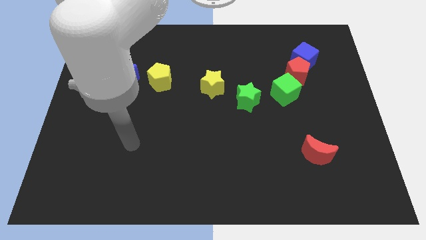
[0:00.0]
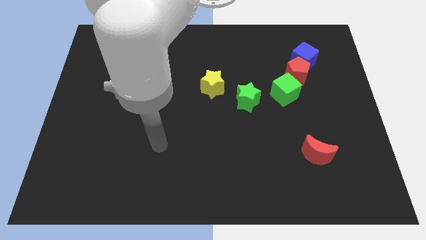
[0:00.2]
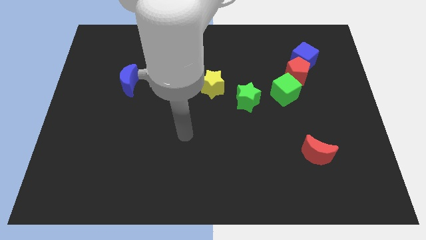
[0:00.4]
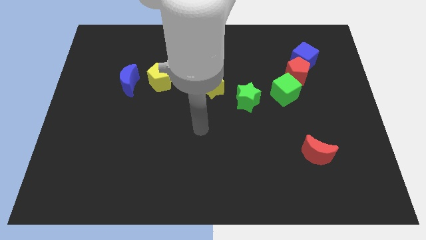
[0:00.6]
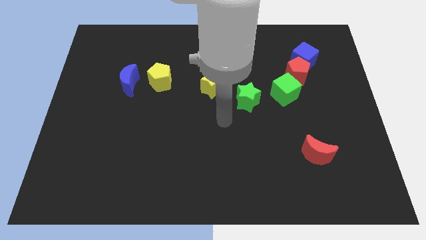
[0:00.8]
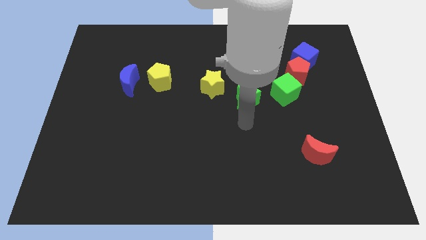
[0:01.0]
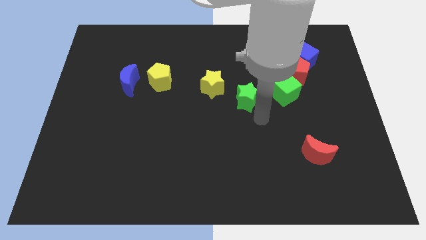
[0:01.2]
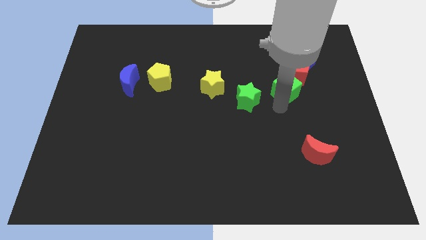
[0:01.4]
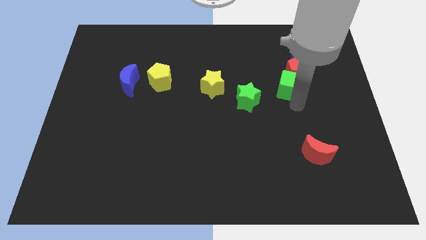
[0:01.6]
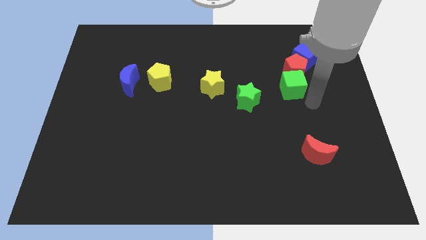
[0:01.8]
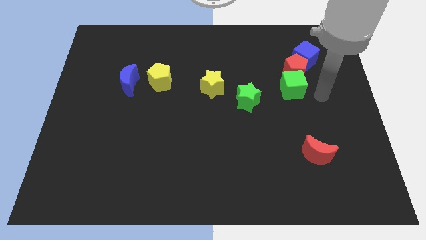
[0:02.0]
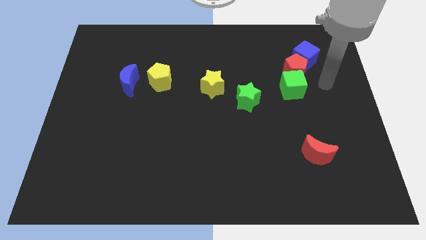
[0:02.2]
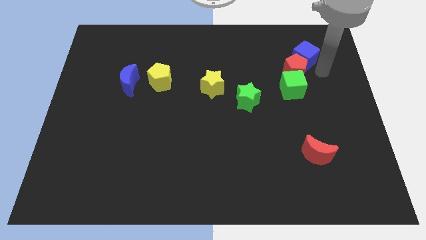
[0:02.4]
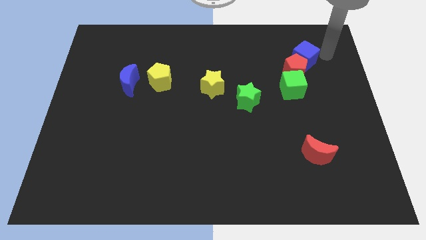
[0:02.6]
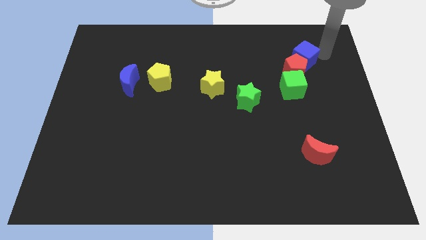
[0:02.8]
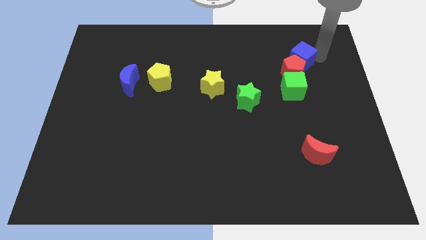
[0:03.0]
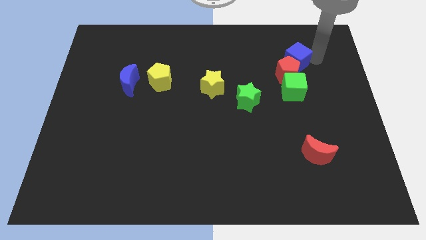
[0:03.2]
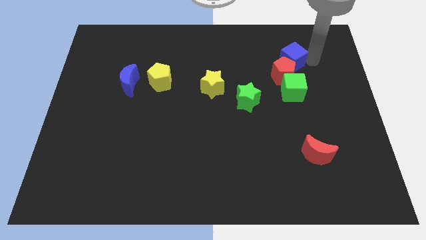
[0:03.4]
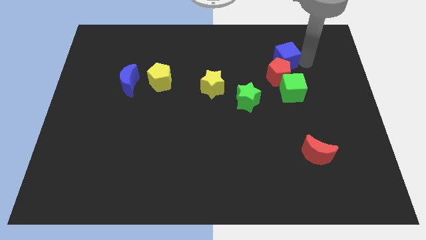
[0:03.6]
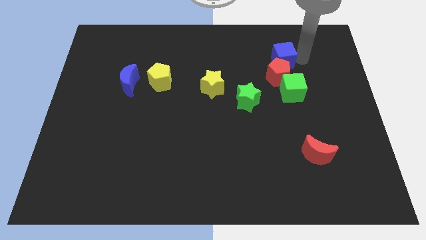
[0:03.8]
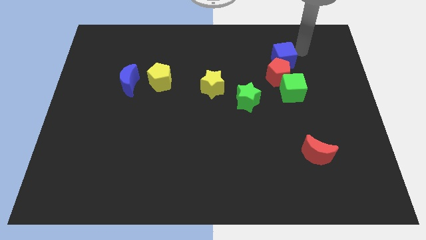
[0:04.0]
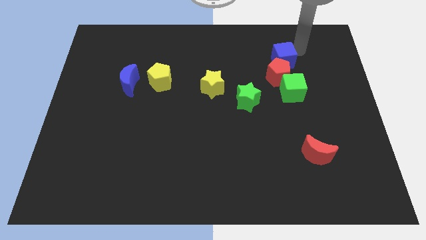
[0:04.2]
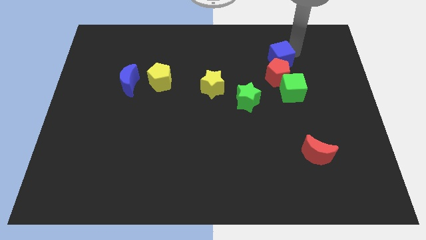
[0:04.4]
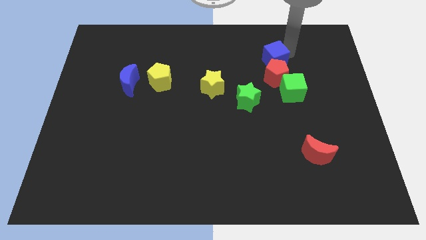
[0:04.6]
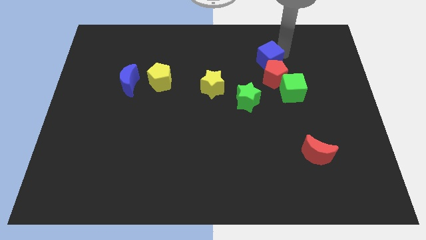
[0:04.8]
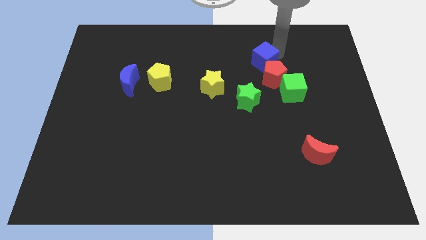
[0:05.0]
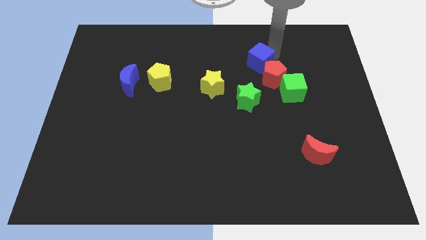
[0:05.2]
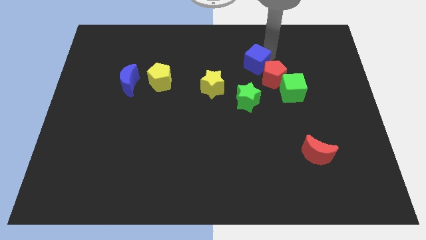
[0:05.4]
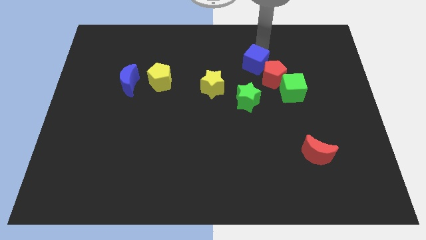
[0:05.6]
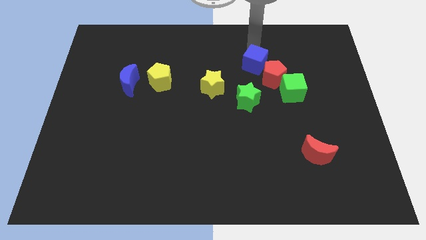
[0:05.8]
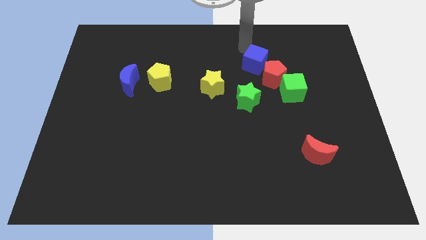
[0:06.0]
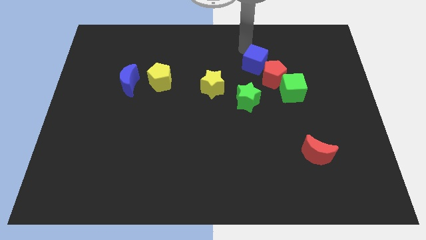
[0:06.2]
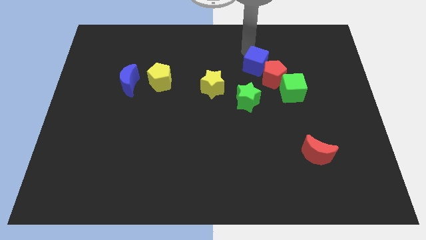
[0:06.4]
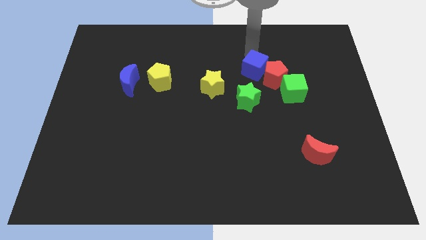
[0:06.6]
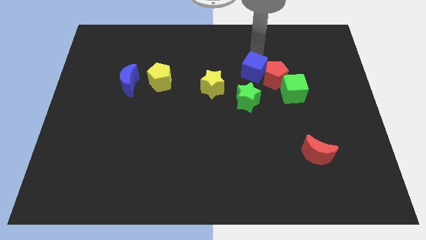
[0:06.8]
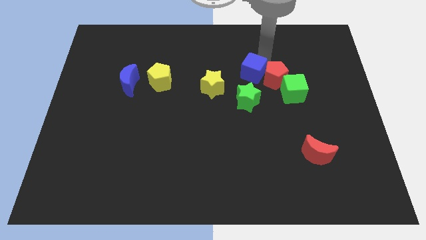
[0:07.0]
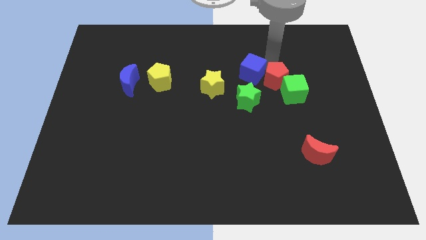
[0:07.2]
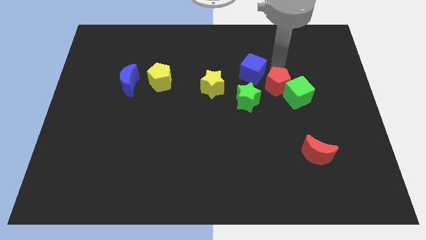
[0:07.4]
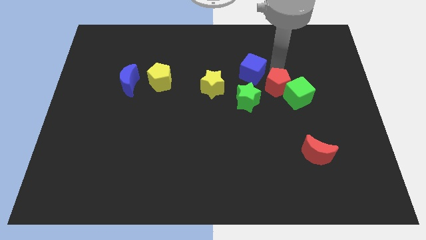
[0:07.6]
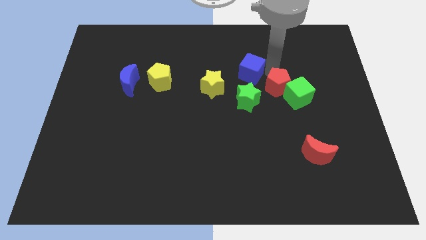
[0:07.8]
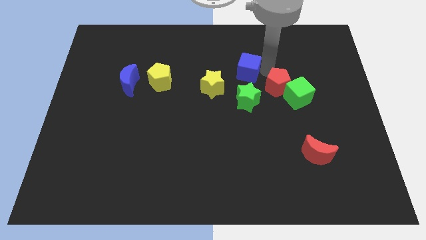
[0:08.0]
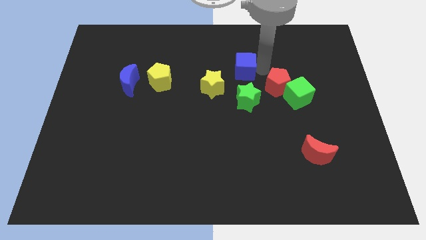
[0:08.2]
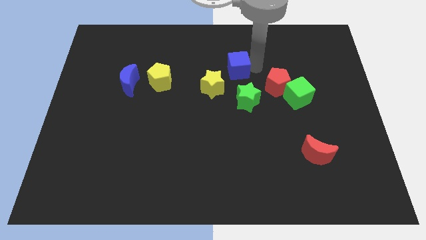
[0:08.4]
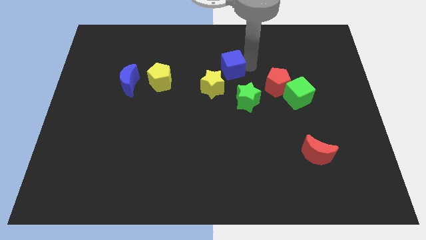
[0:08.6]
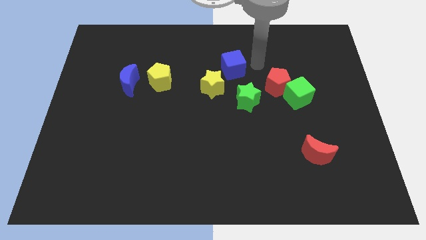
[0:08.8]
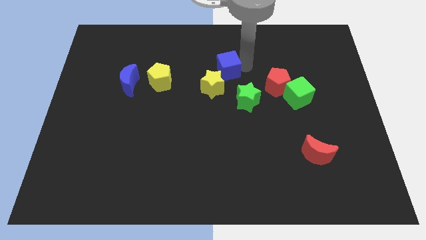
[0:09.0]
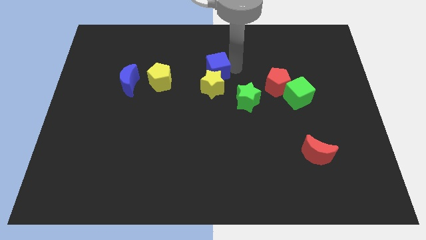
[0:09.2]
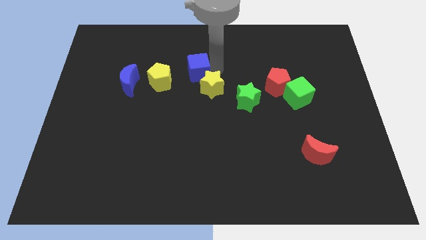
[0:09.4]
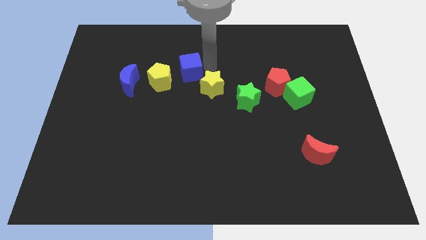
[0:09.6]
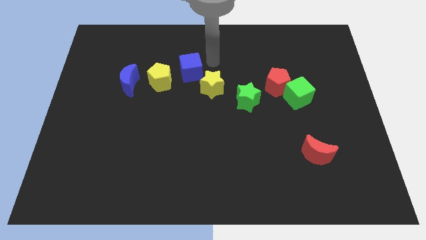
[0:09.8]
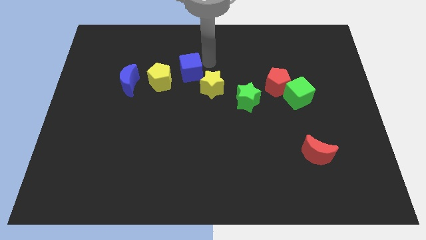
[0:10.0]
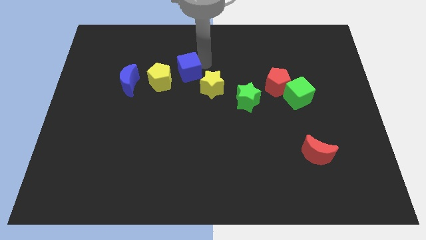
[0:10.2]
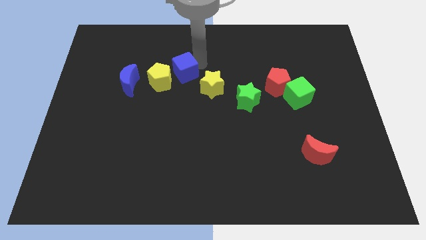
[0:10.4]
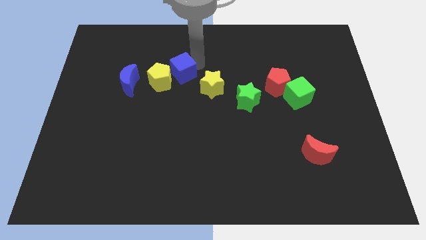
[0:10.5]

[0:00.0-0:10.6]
slide the blue cube towards the yellow pentagon

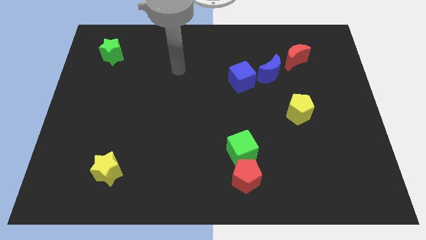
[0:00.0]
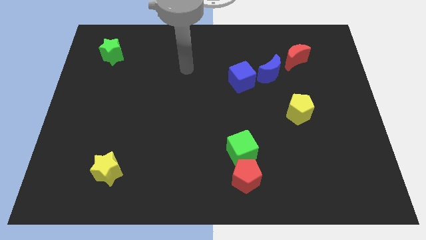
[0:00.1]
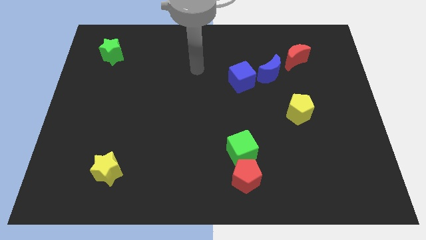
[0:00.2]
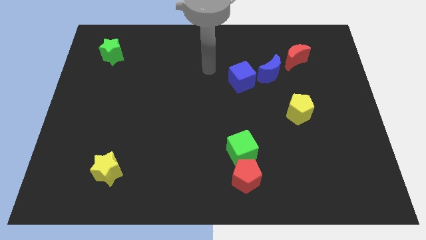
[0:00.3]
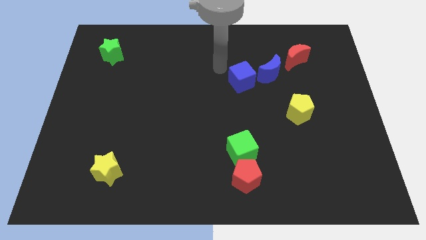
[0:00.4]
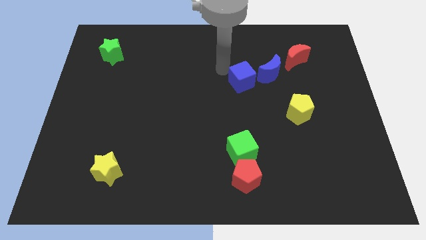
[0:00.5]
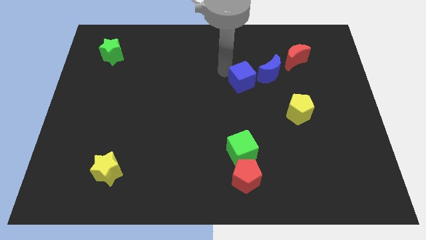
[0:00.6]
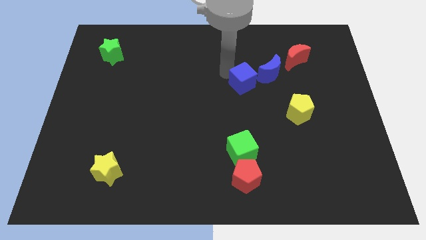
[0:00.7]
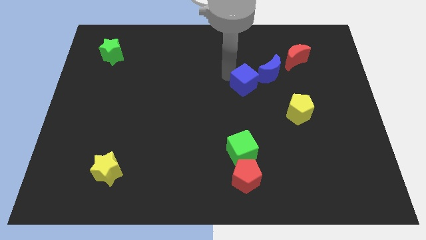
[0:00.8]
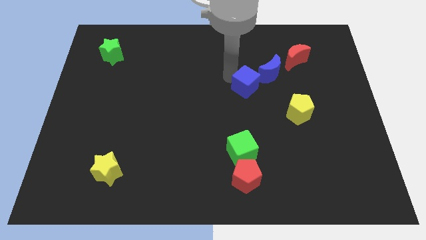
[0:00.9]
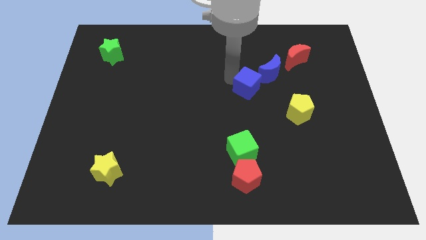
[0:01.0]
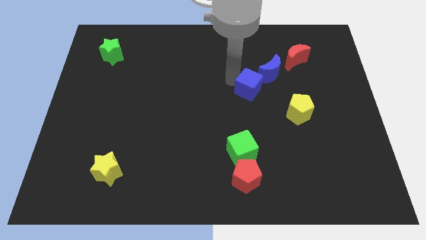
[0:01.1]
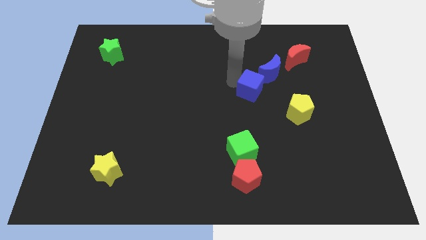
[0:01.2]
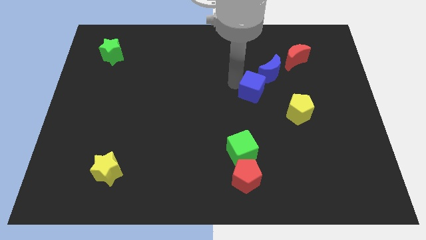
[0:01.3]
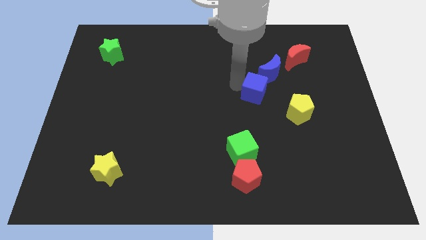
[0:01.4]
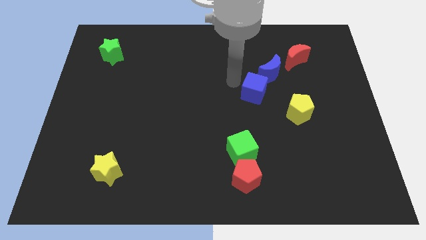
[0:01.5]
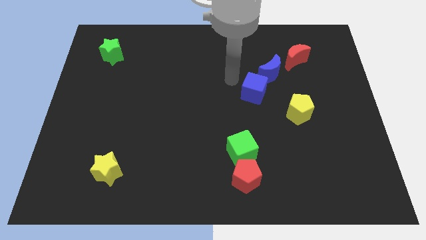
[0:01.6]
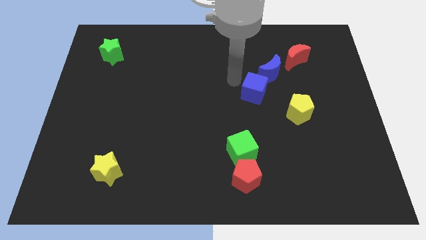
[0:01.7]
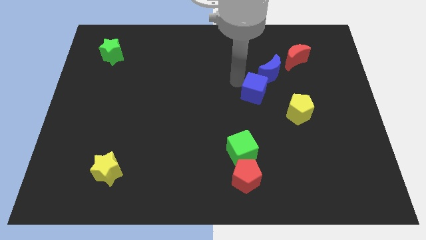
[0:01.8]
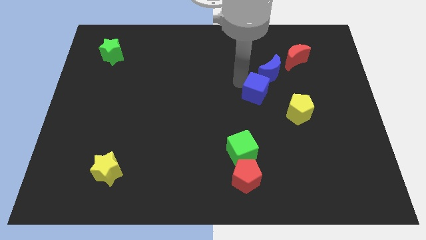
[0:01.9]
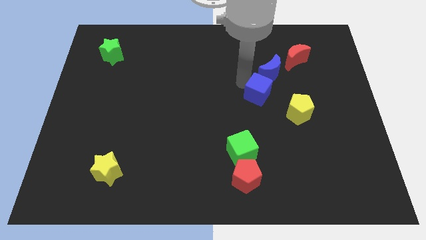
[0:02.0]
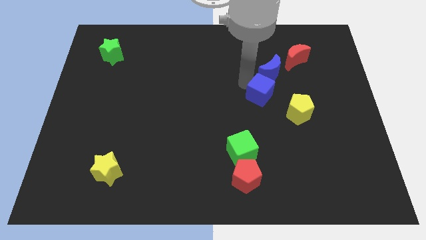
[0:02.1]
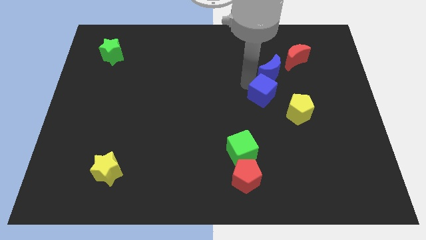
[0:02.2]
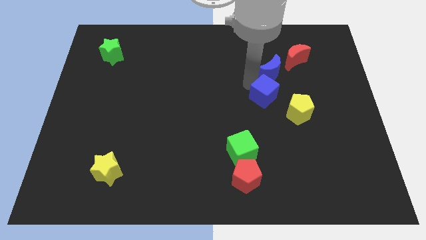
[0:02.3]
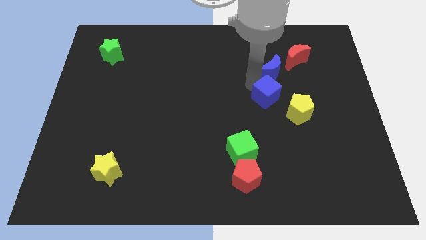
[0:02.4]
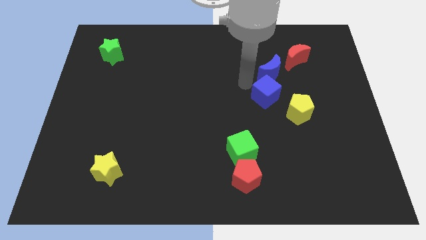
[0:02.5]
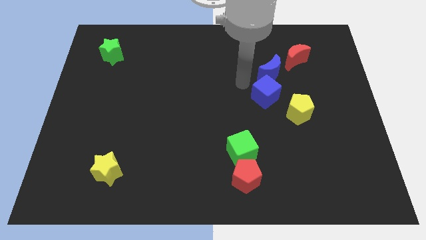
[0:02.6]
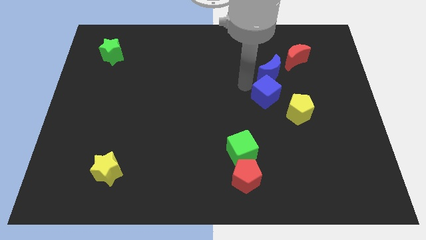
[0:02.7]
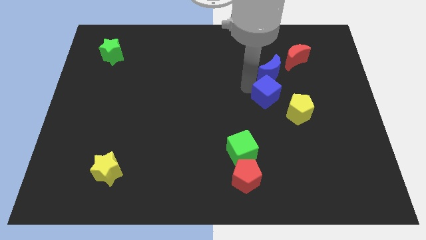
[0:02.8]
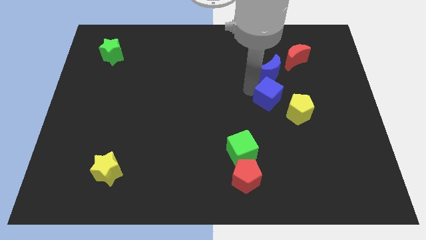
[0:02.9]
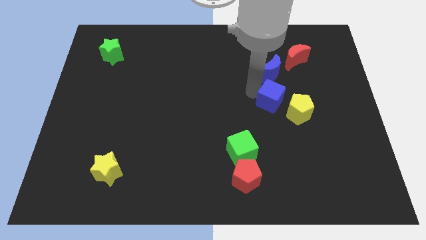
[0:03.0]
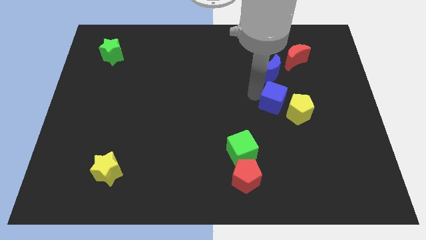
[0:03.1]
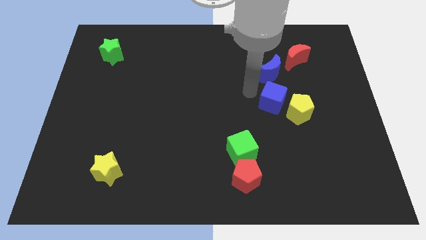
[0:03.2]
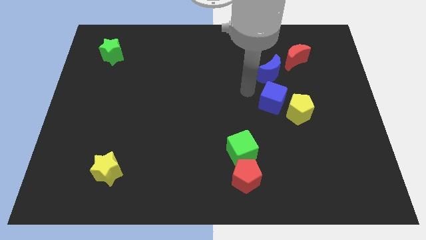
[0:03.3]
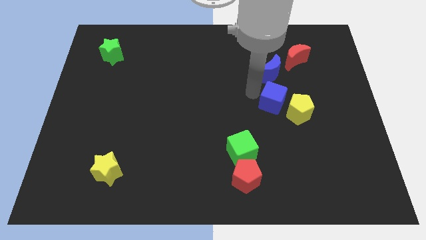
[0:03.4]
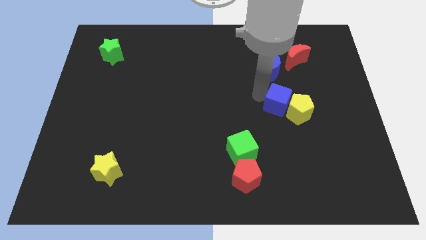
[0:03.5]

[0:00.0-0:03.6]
move the blue cube to the yellow pentagon
